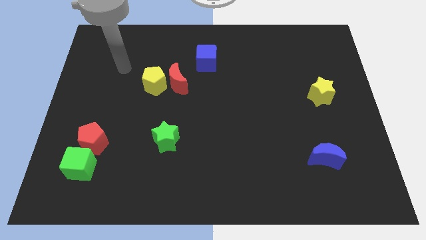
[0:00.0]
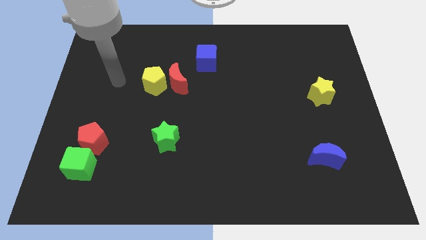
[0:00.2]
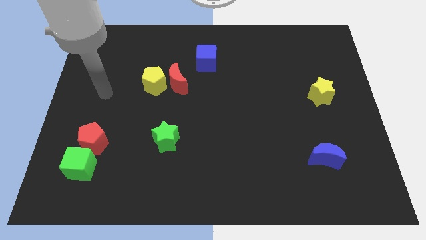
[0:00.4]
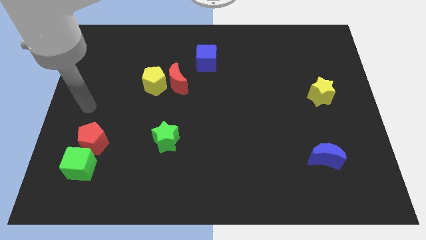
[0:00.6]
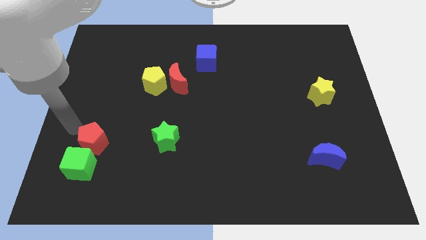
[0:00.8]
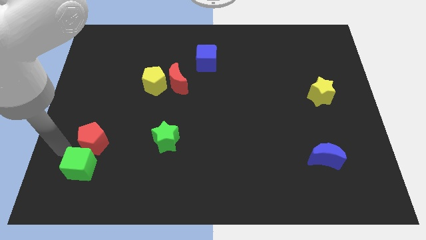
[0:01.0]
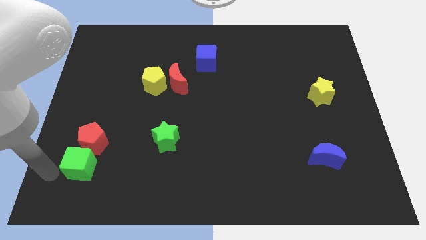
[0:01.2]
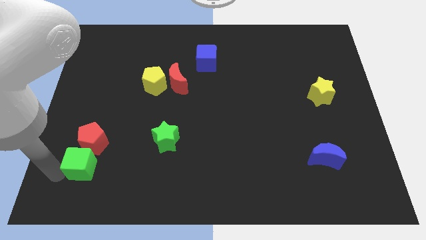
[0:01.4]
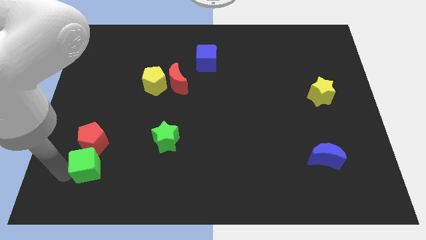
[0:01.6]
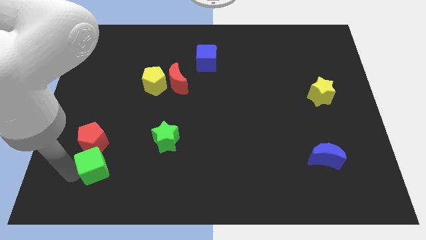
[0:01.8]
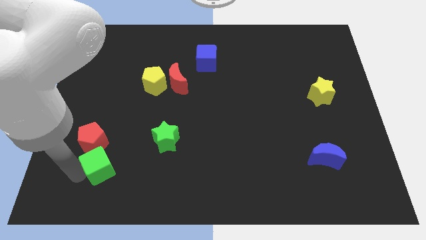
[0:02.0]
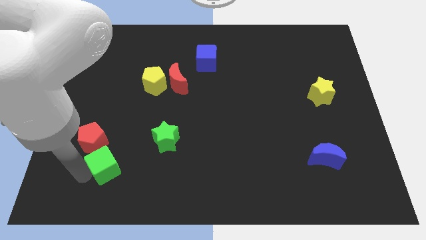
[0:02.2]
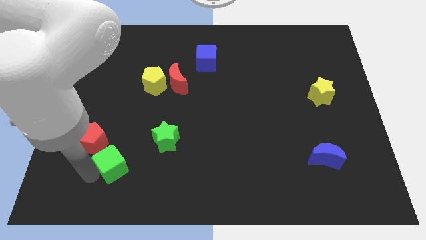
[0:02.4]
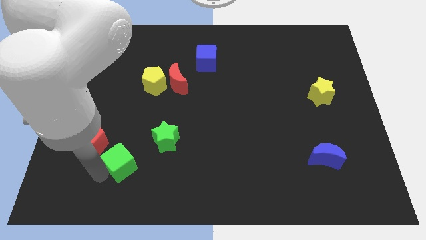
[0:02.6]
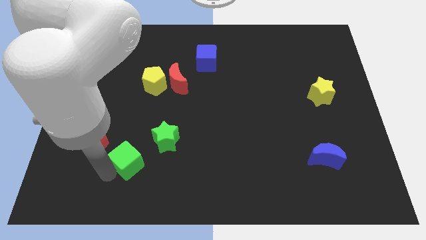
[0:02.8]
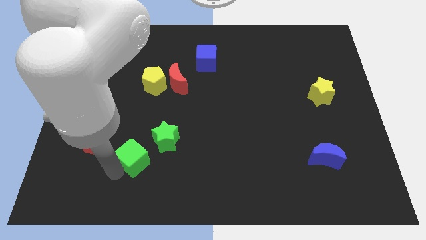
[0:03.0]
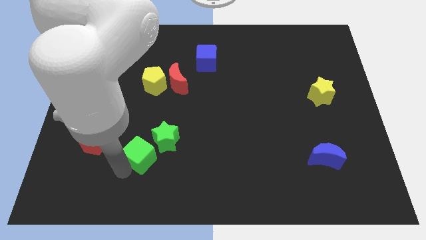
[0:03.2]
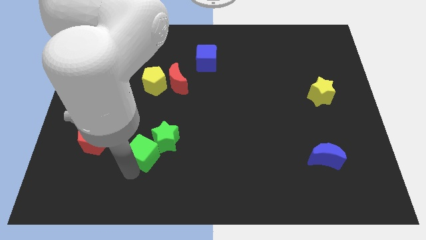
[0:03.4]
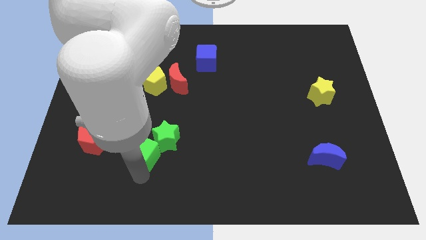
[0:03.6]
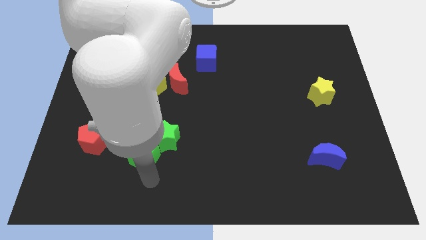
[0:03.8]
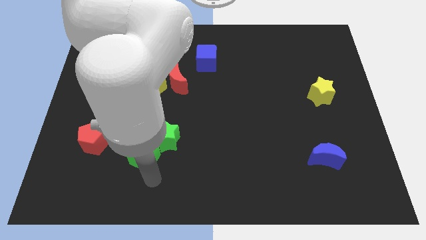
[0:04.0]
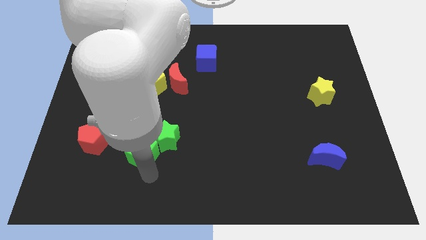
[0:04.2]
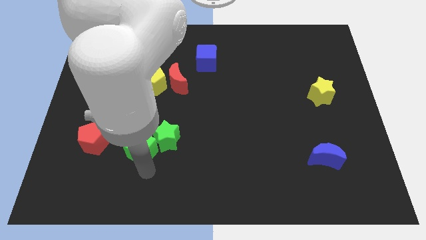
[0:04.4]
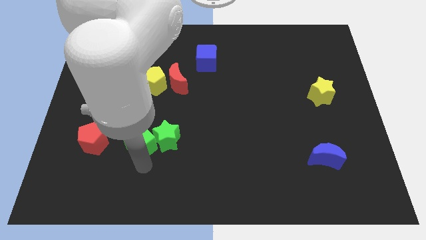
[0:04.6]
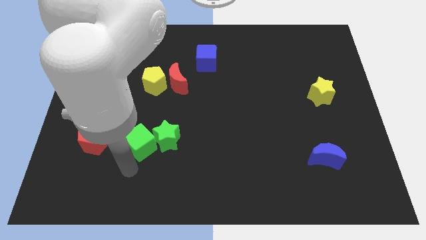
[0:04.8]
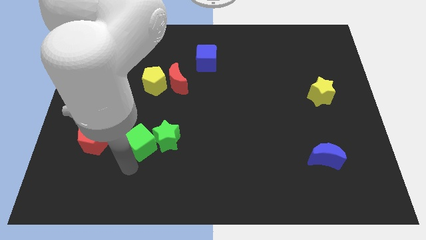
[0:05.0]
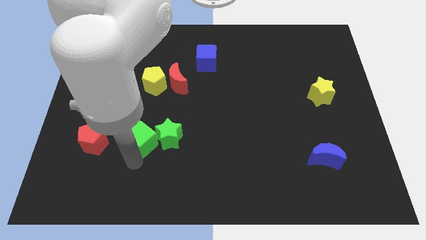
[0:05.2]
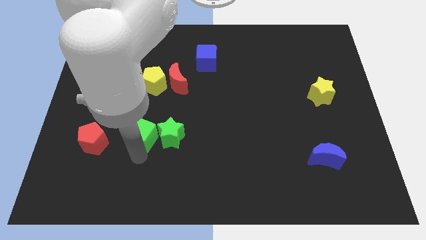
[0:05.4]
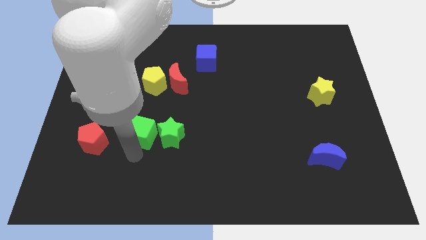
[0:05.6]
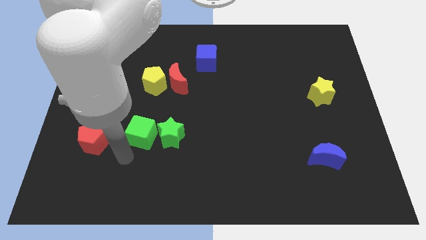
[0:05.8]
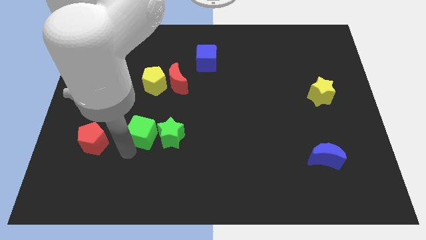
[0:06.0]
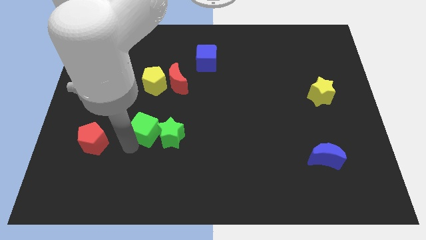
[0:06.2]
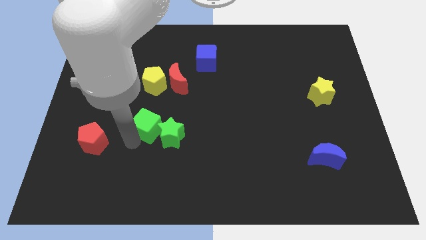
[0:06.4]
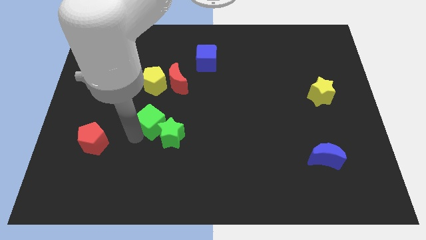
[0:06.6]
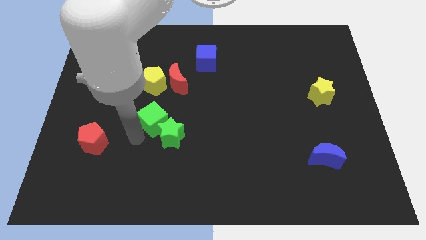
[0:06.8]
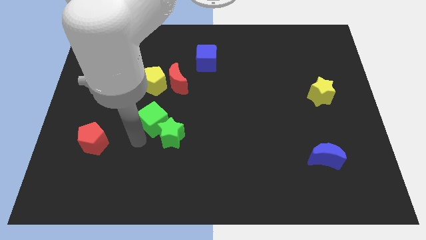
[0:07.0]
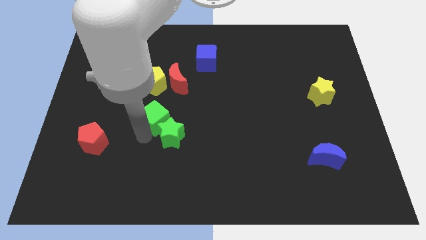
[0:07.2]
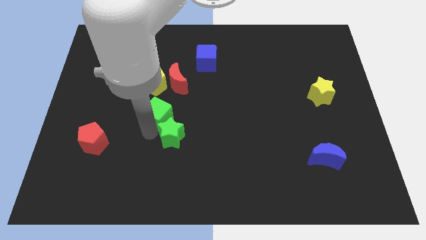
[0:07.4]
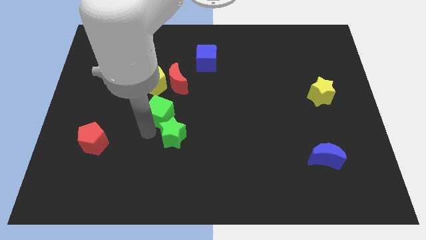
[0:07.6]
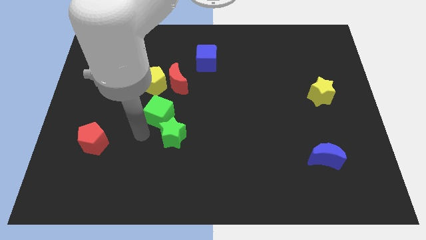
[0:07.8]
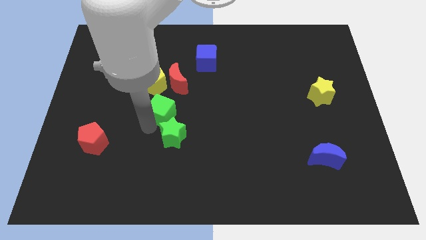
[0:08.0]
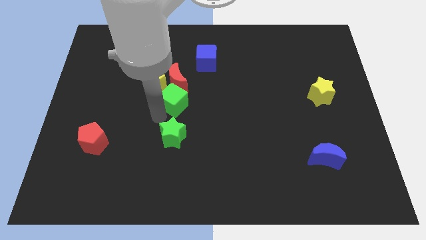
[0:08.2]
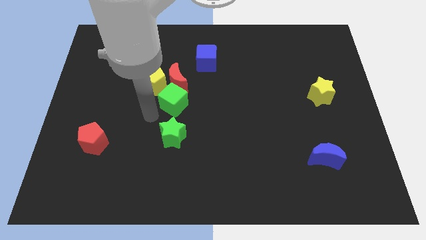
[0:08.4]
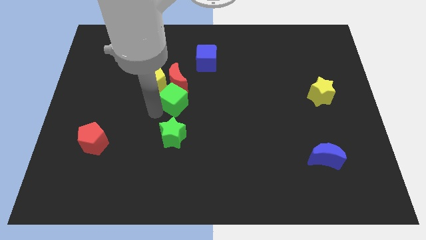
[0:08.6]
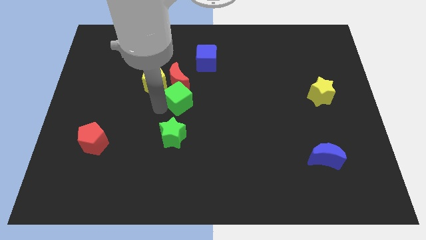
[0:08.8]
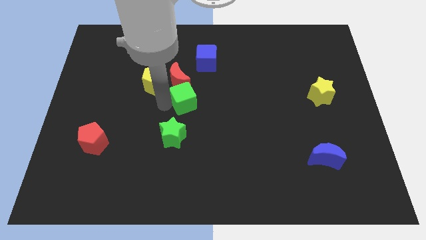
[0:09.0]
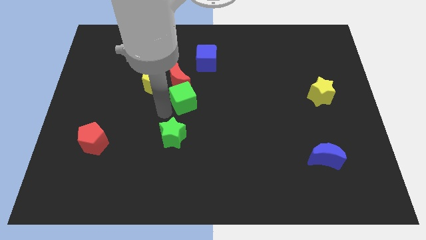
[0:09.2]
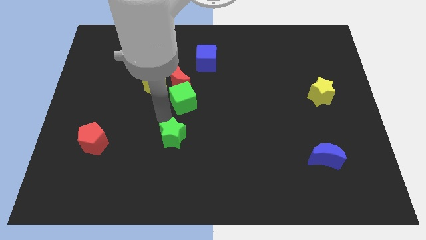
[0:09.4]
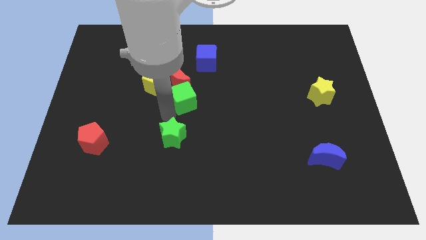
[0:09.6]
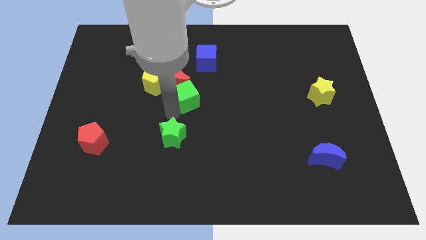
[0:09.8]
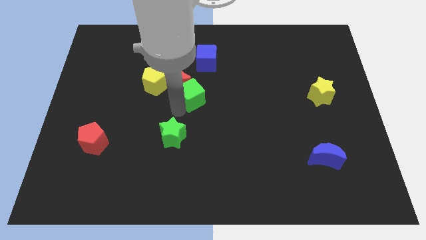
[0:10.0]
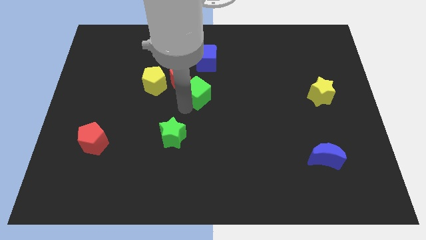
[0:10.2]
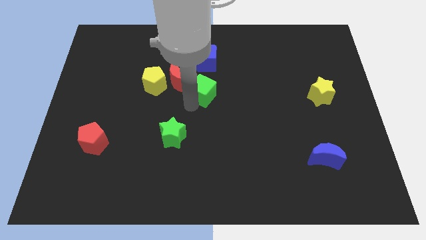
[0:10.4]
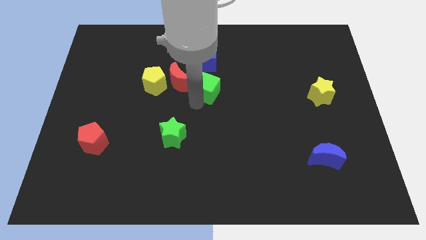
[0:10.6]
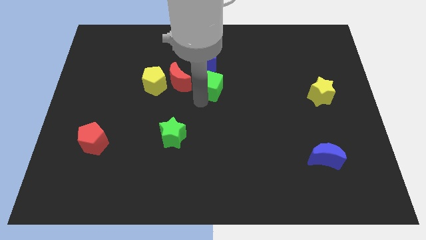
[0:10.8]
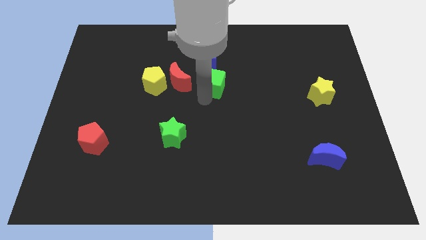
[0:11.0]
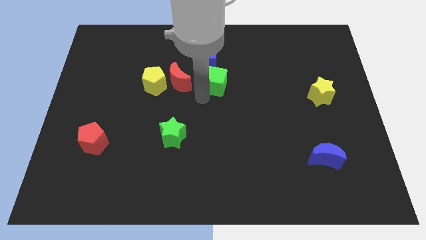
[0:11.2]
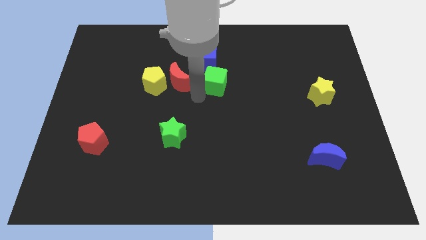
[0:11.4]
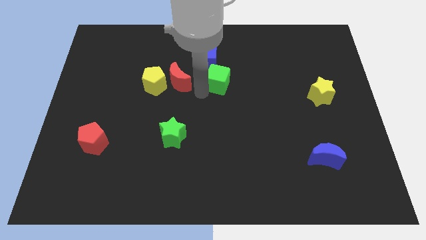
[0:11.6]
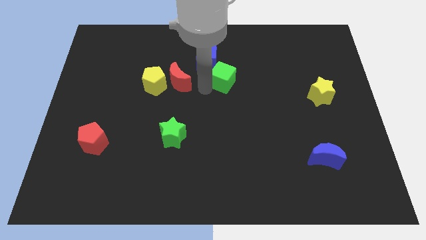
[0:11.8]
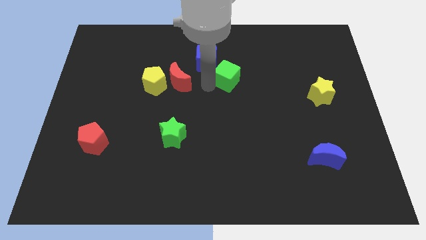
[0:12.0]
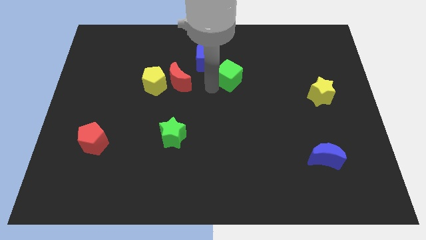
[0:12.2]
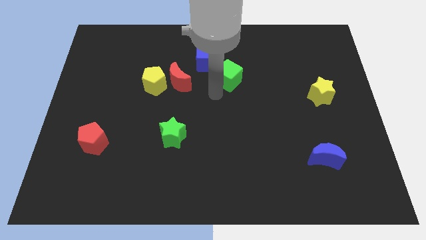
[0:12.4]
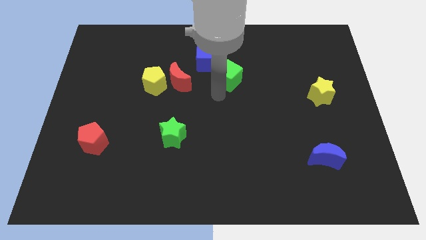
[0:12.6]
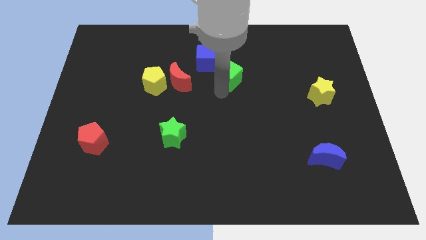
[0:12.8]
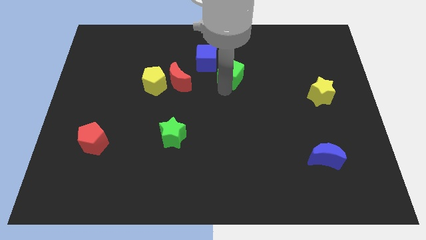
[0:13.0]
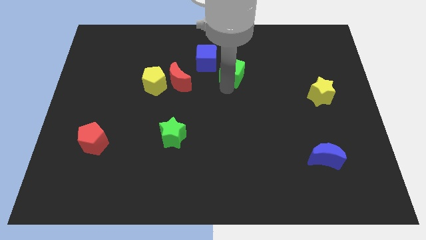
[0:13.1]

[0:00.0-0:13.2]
put the green cube to the right of the blue cube

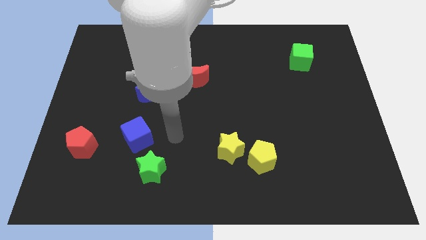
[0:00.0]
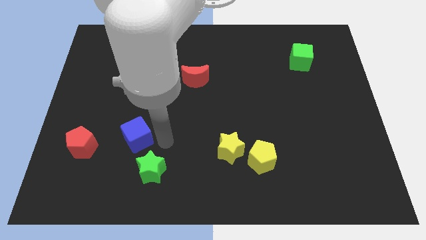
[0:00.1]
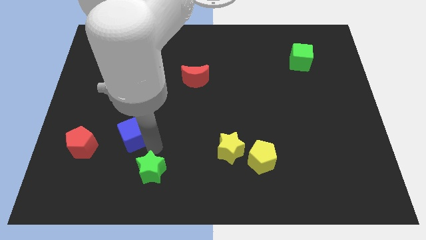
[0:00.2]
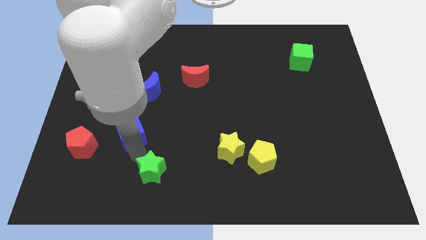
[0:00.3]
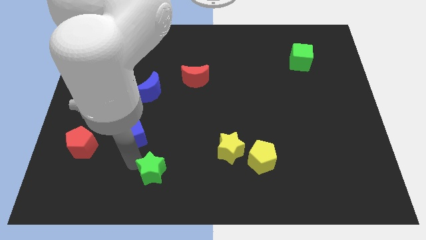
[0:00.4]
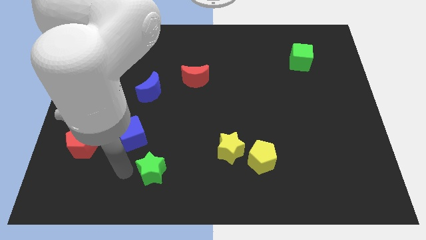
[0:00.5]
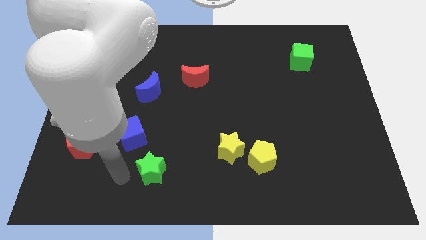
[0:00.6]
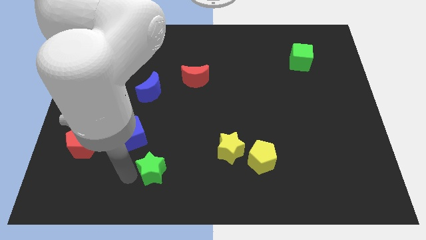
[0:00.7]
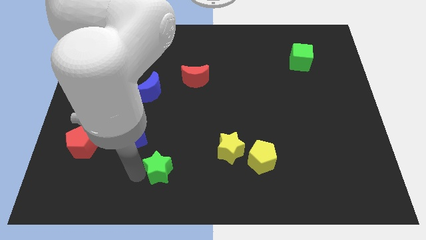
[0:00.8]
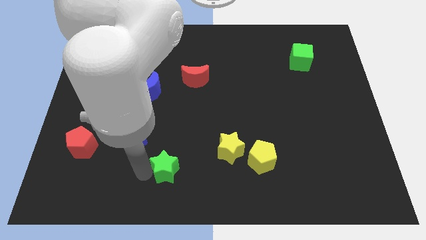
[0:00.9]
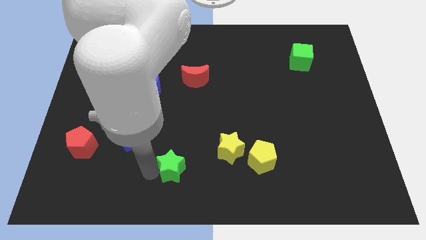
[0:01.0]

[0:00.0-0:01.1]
slide the green star left of the yellow star
